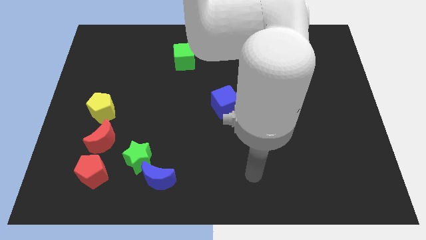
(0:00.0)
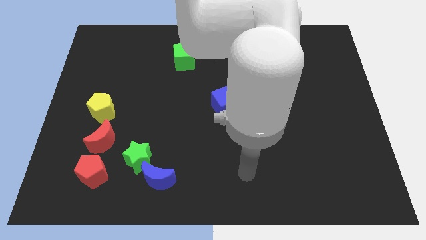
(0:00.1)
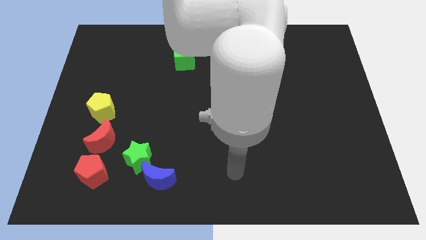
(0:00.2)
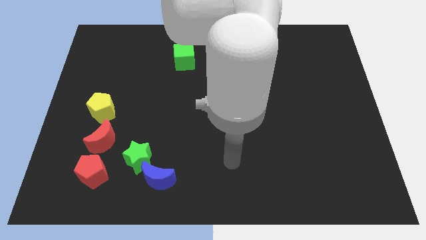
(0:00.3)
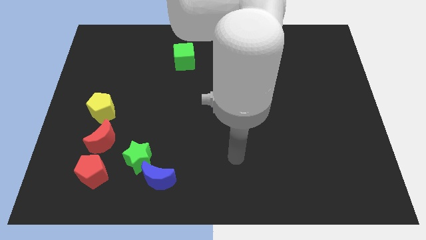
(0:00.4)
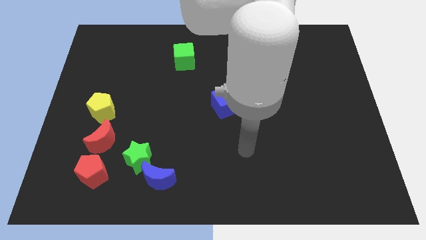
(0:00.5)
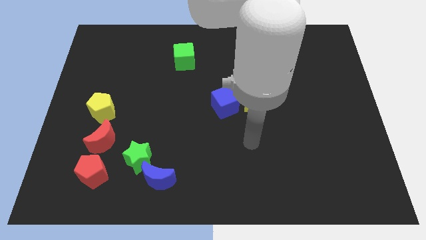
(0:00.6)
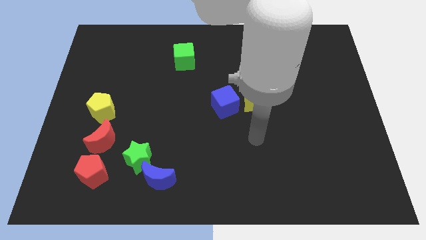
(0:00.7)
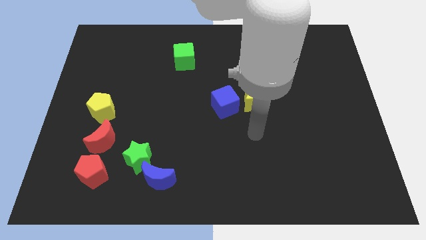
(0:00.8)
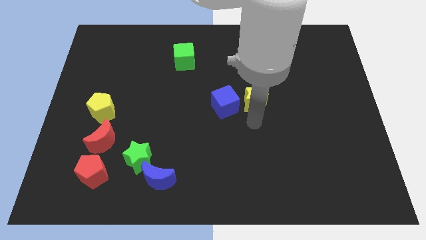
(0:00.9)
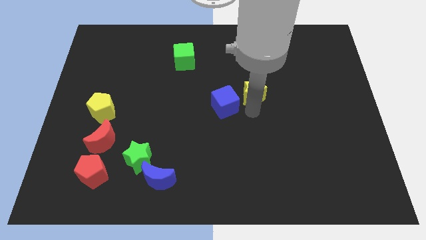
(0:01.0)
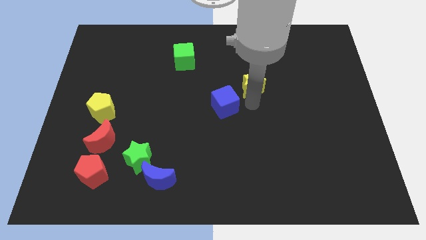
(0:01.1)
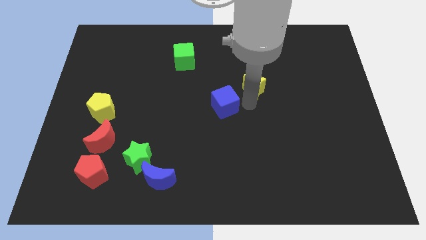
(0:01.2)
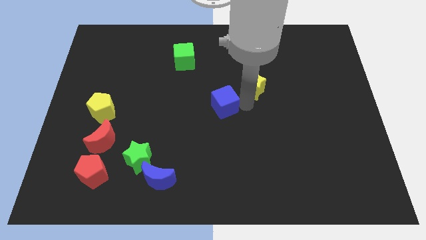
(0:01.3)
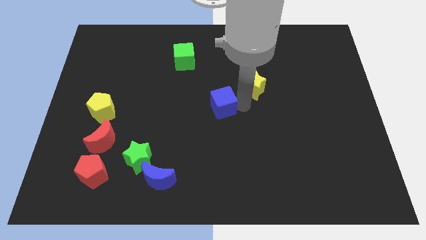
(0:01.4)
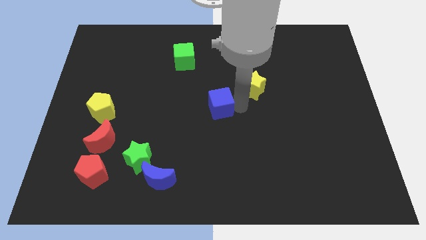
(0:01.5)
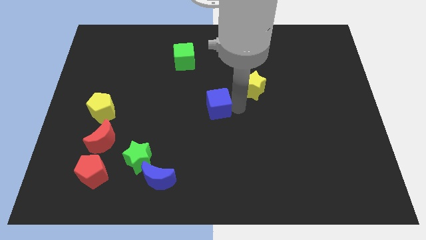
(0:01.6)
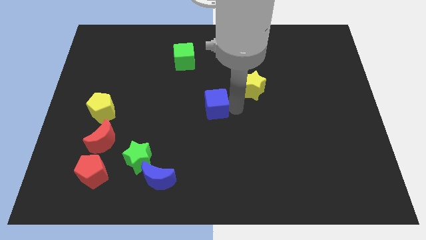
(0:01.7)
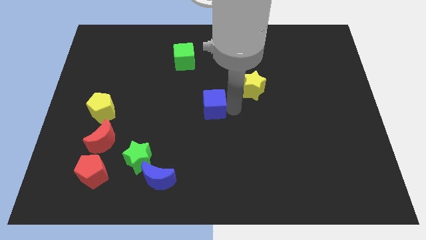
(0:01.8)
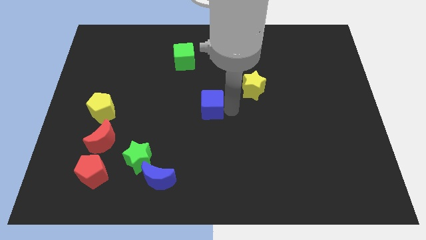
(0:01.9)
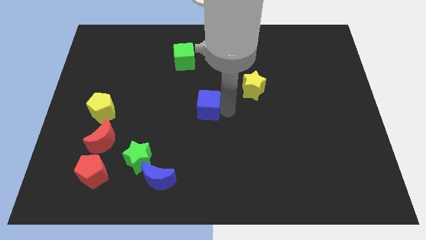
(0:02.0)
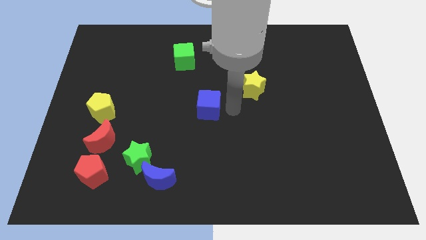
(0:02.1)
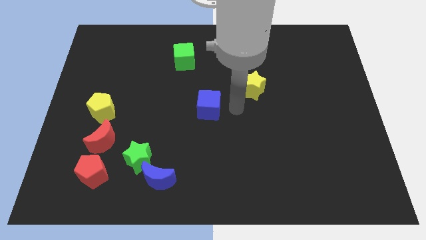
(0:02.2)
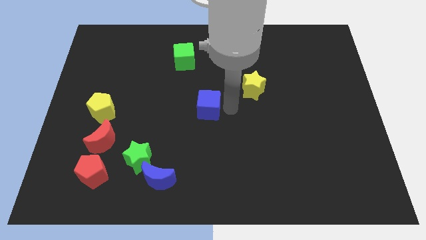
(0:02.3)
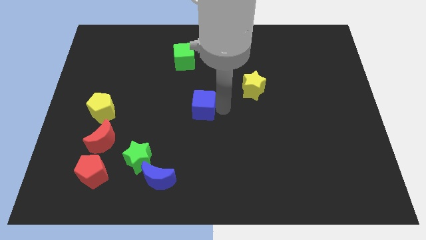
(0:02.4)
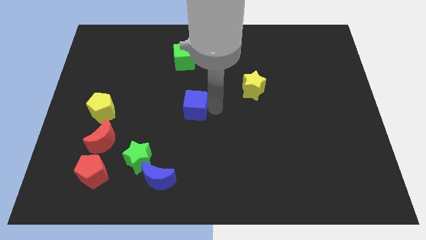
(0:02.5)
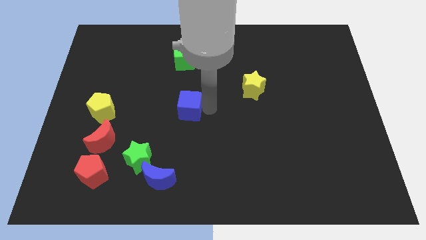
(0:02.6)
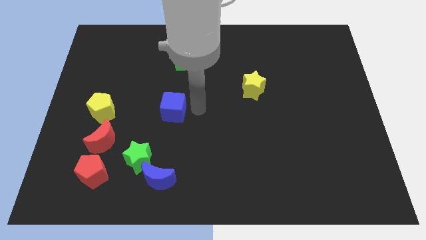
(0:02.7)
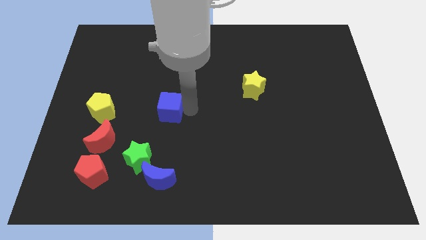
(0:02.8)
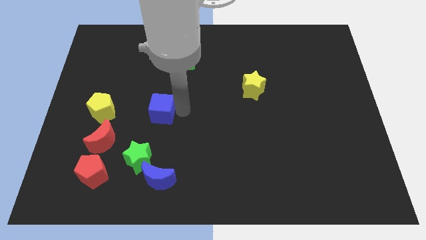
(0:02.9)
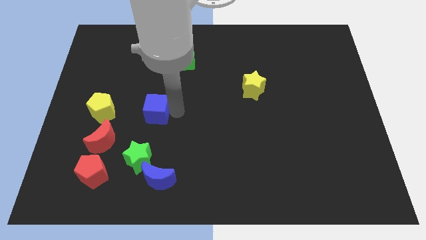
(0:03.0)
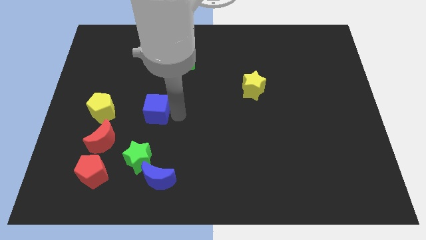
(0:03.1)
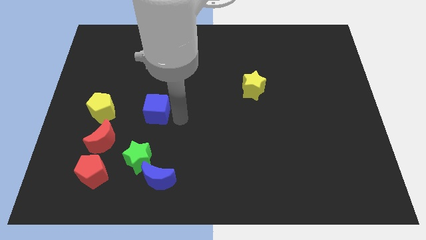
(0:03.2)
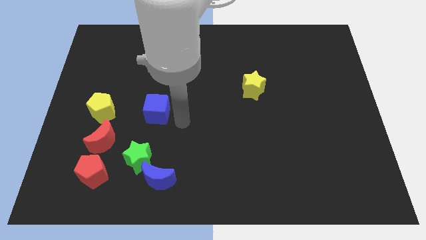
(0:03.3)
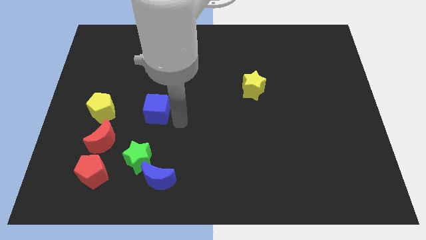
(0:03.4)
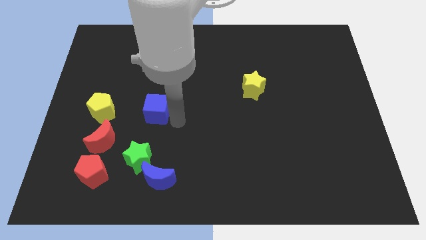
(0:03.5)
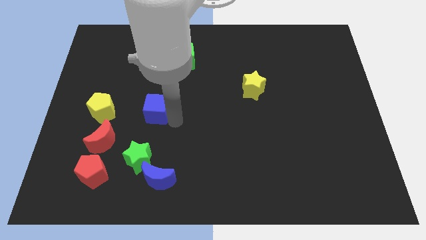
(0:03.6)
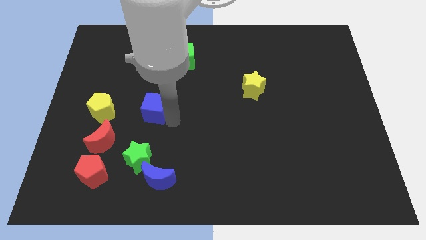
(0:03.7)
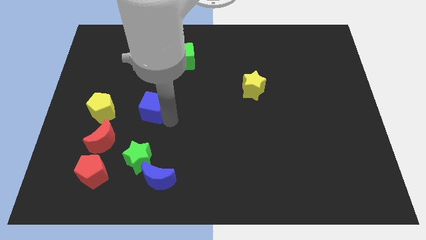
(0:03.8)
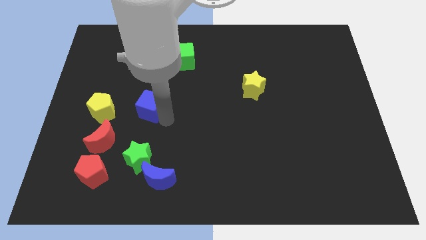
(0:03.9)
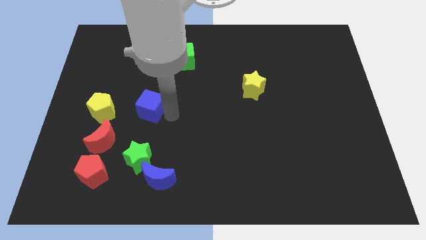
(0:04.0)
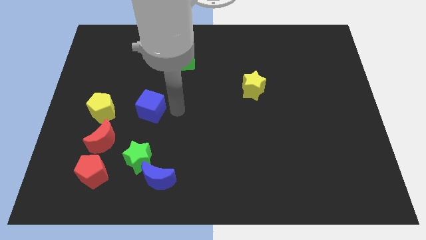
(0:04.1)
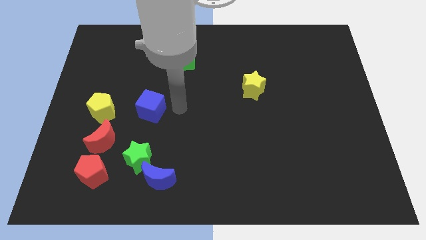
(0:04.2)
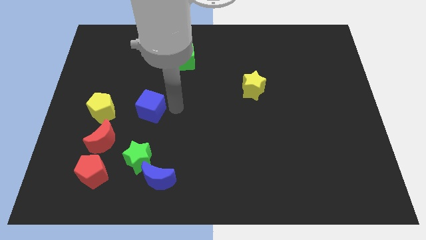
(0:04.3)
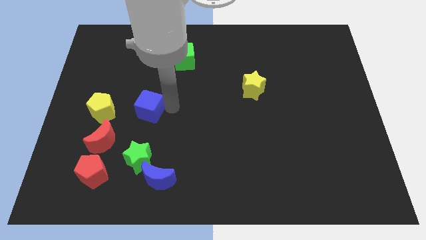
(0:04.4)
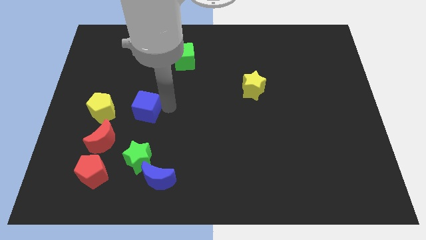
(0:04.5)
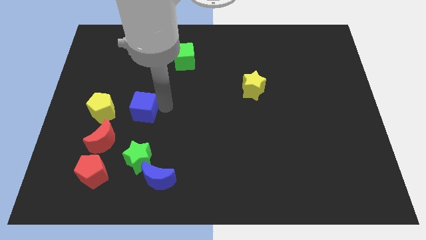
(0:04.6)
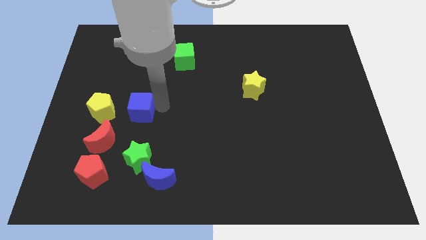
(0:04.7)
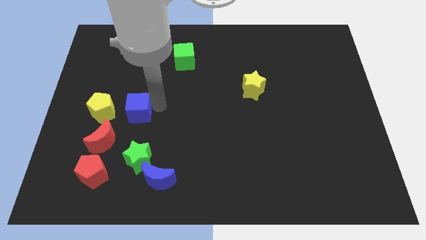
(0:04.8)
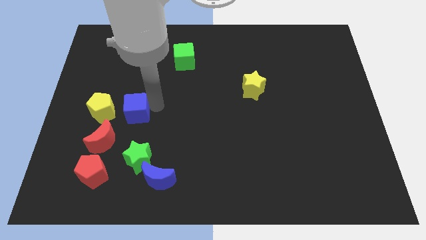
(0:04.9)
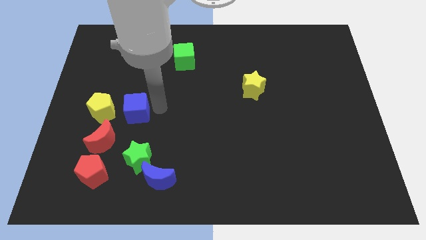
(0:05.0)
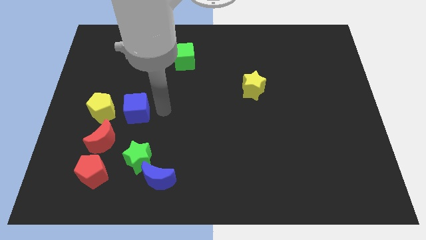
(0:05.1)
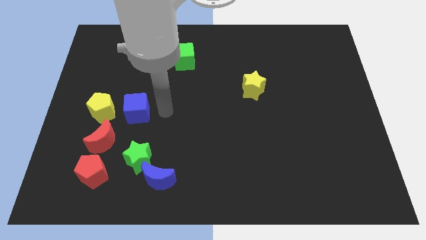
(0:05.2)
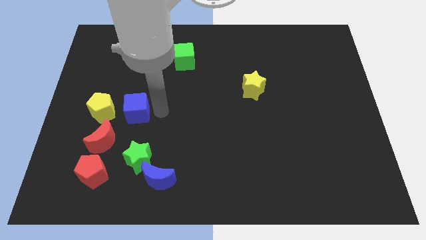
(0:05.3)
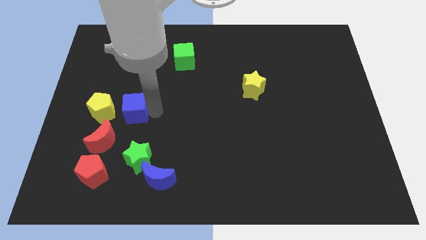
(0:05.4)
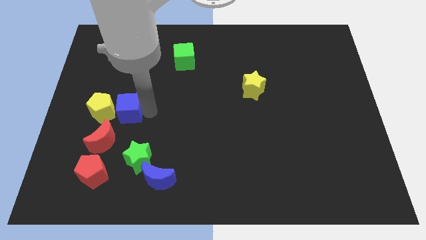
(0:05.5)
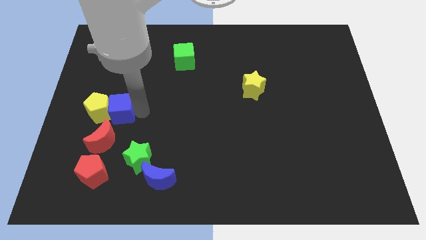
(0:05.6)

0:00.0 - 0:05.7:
slide the blue cube next to the yellow pentagon

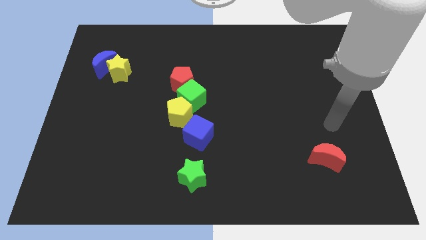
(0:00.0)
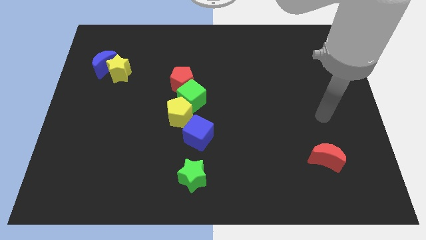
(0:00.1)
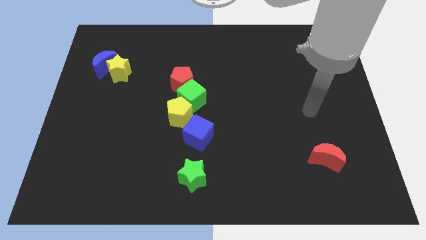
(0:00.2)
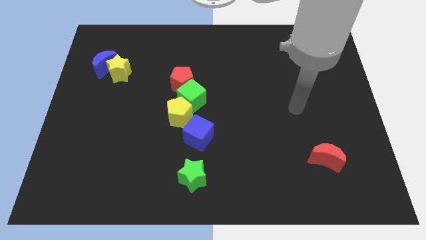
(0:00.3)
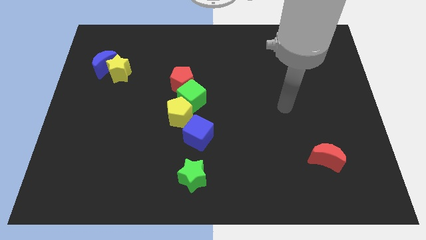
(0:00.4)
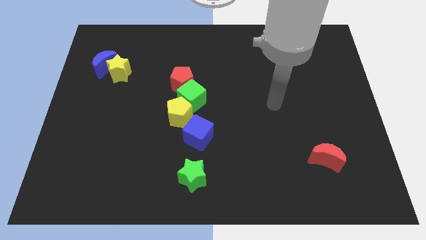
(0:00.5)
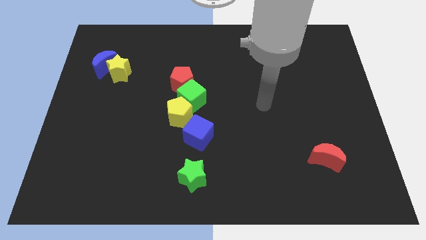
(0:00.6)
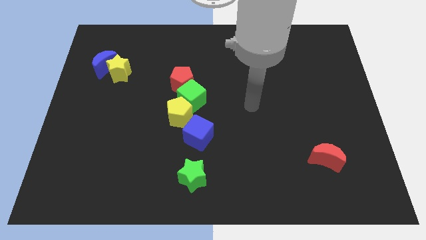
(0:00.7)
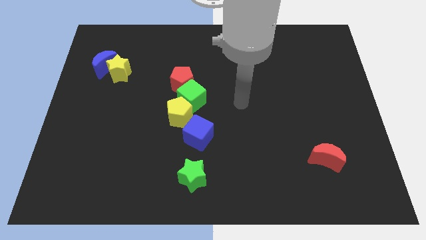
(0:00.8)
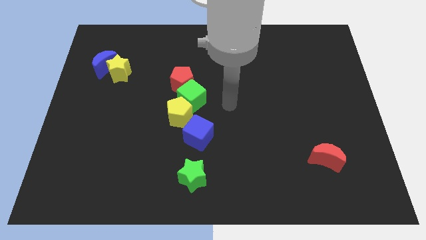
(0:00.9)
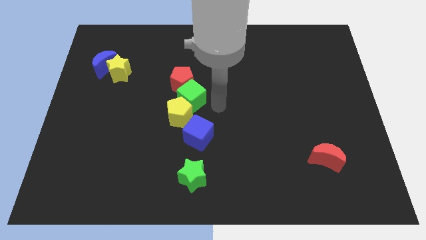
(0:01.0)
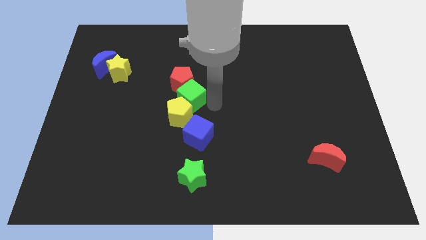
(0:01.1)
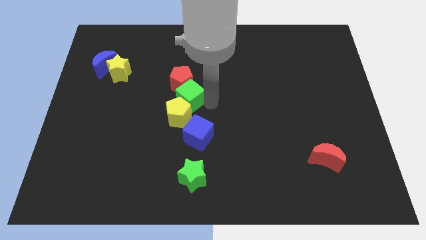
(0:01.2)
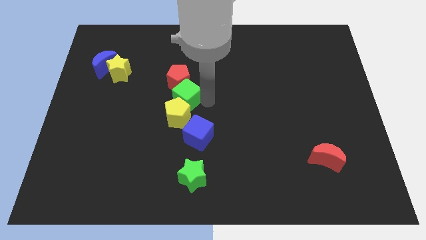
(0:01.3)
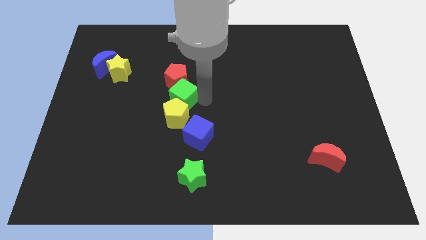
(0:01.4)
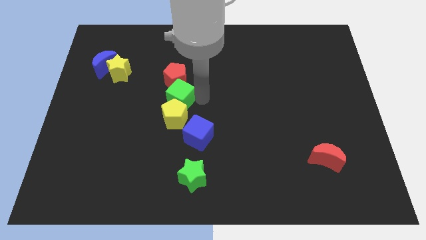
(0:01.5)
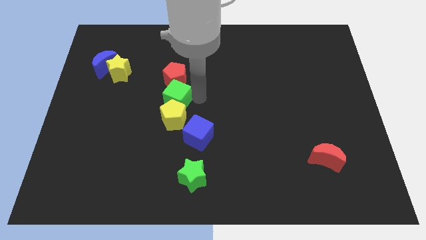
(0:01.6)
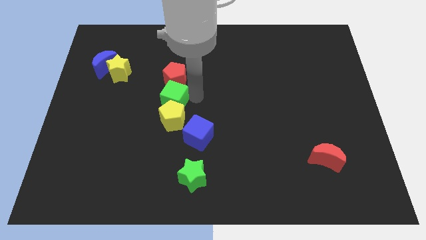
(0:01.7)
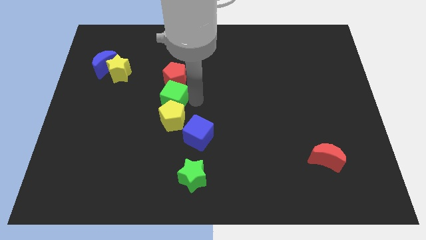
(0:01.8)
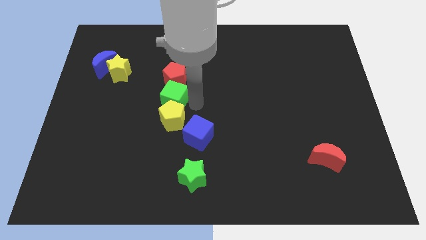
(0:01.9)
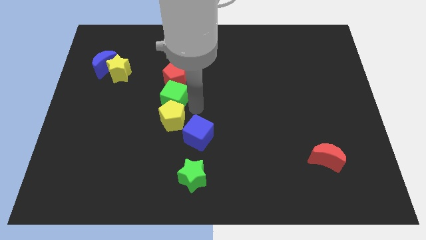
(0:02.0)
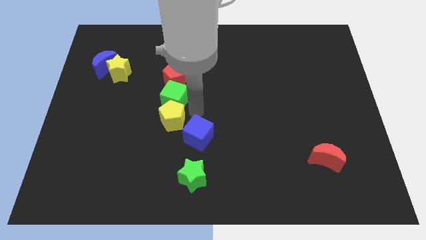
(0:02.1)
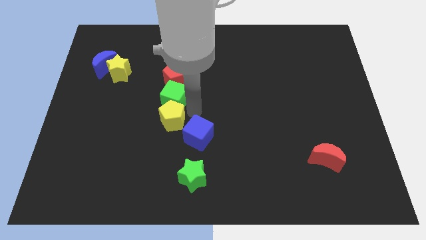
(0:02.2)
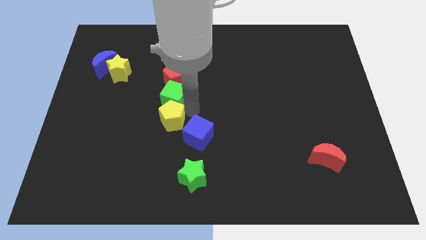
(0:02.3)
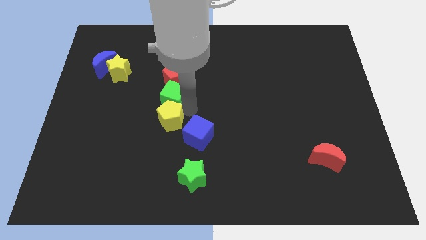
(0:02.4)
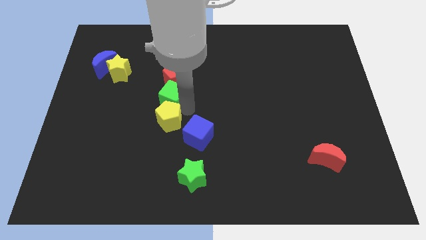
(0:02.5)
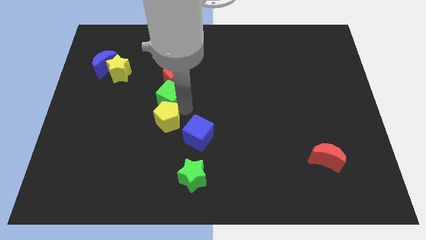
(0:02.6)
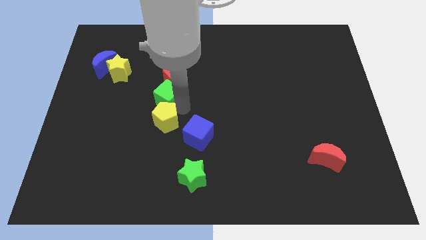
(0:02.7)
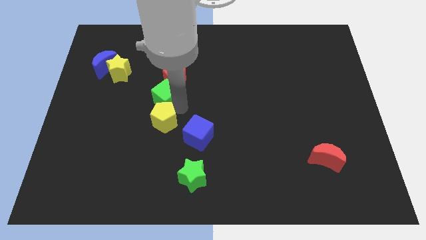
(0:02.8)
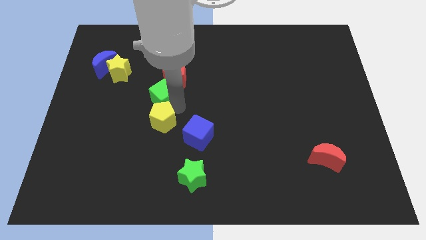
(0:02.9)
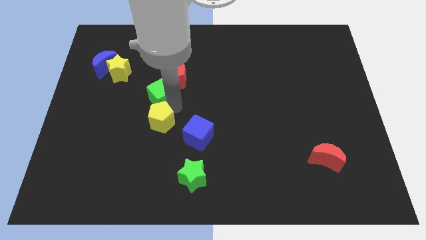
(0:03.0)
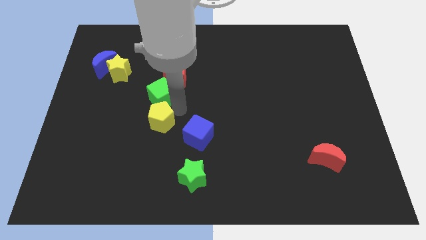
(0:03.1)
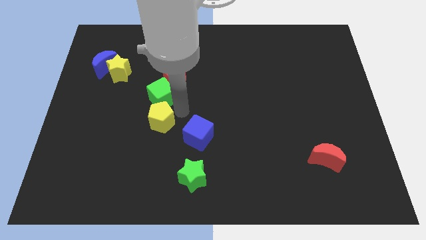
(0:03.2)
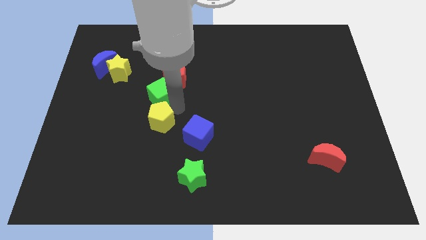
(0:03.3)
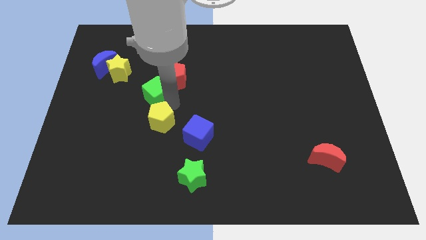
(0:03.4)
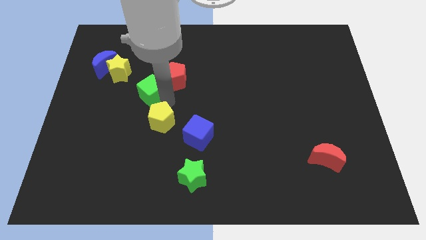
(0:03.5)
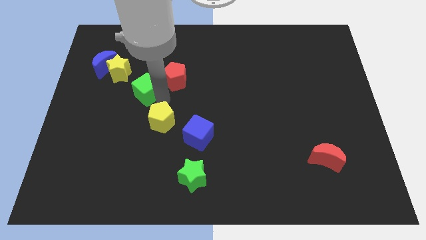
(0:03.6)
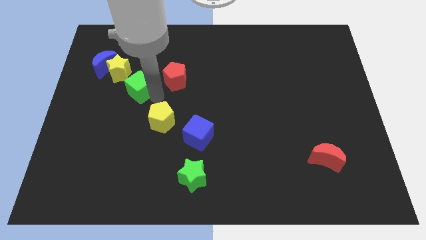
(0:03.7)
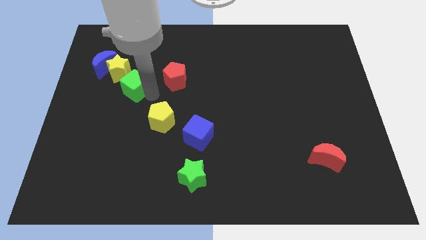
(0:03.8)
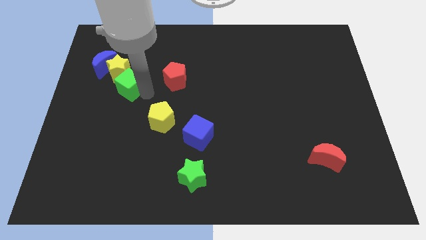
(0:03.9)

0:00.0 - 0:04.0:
push the green cube towards the yellow star
